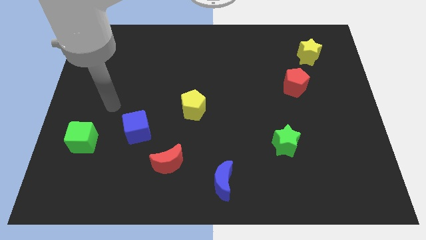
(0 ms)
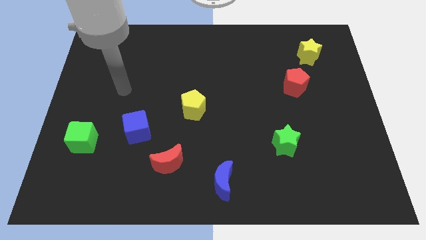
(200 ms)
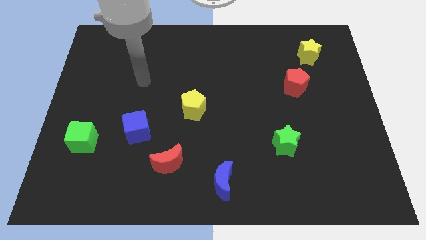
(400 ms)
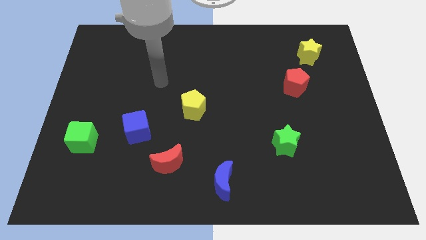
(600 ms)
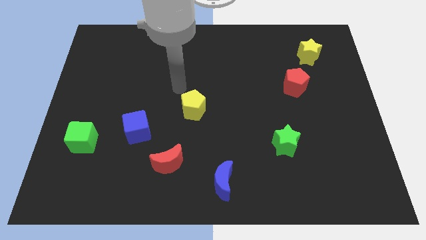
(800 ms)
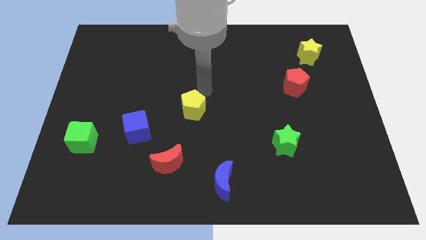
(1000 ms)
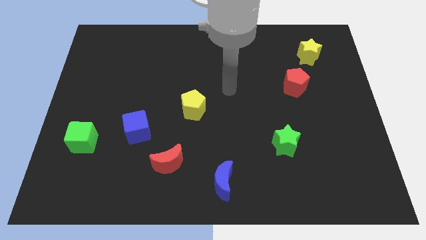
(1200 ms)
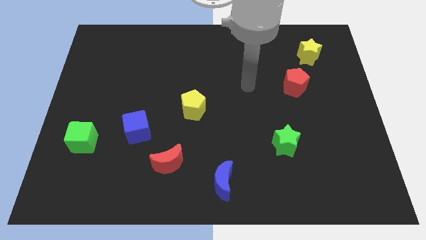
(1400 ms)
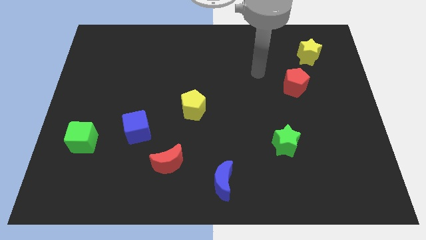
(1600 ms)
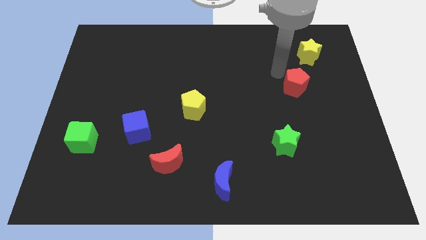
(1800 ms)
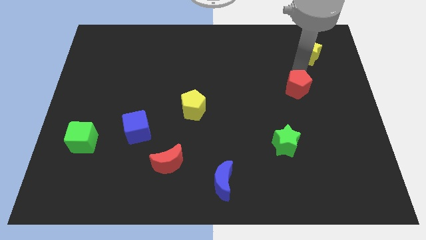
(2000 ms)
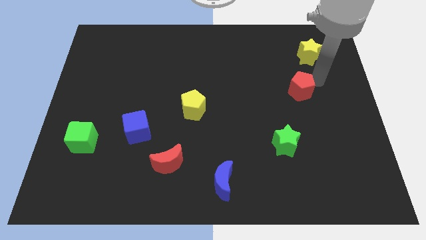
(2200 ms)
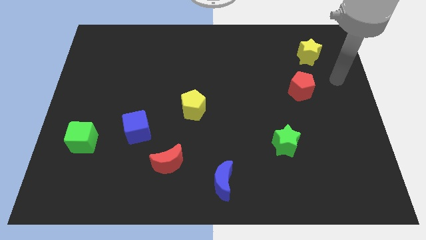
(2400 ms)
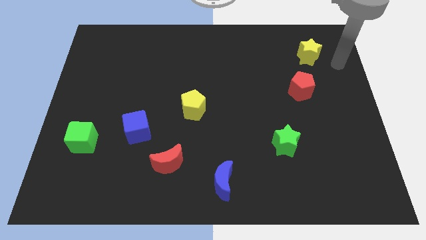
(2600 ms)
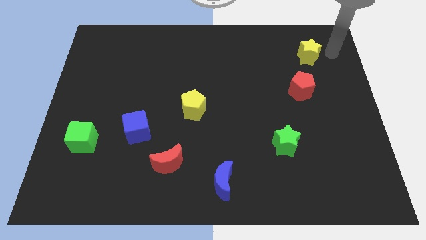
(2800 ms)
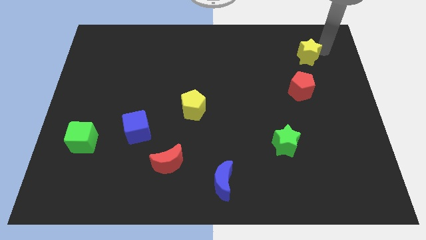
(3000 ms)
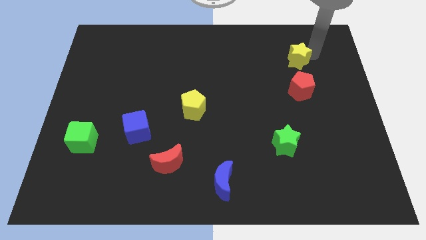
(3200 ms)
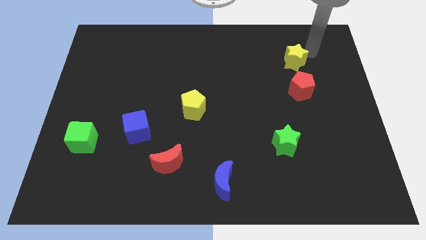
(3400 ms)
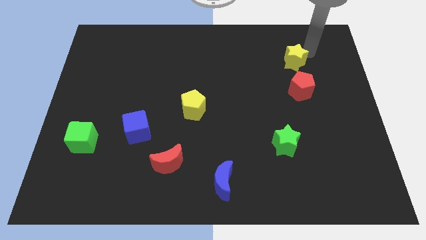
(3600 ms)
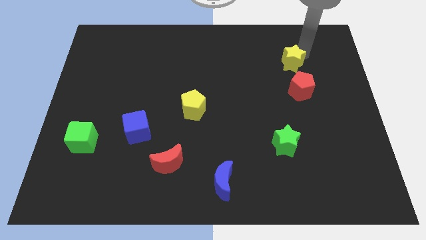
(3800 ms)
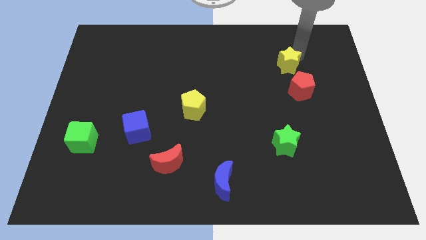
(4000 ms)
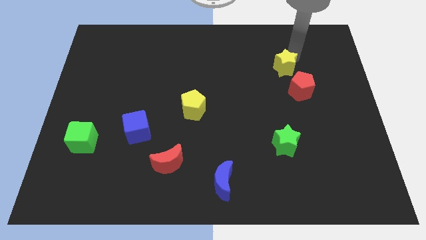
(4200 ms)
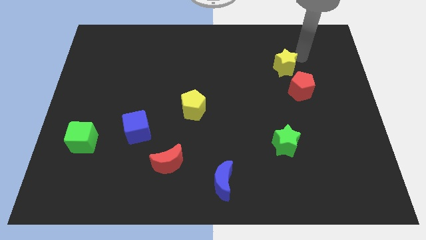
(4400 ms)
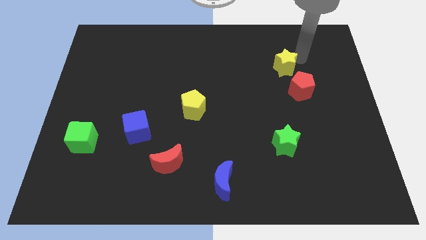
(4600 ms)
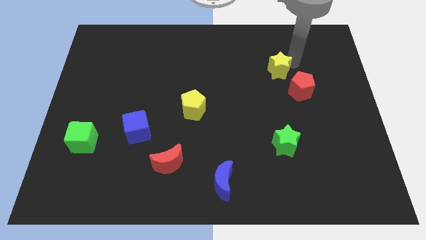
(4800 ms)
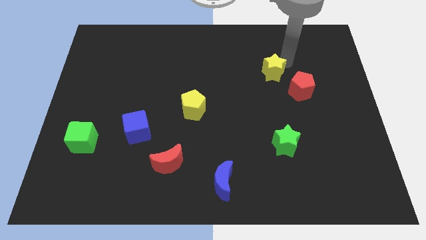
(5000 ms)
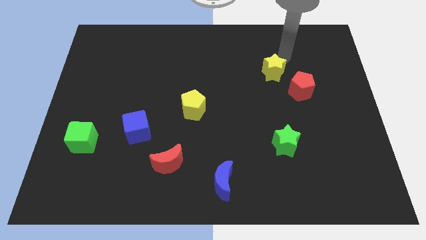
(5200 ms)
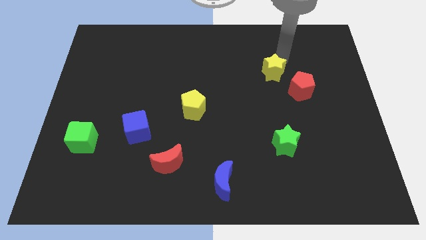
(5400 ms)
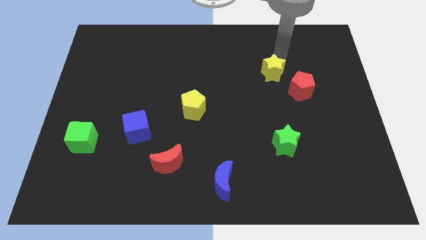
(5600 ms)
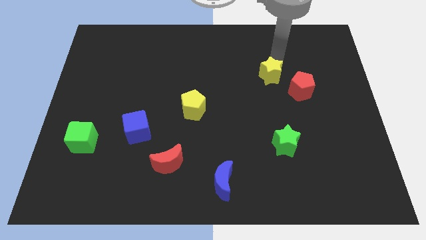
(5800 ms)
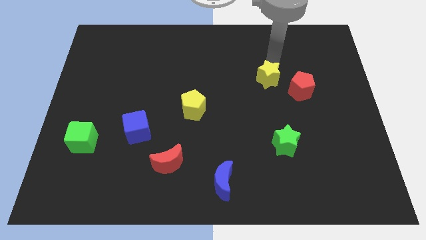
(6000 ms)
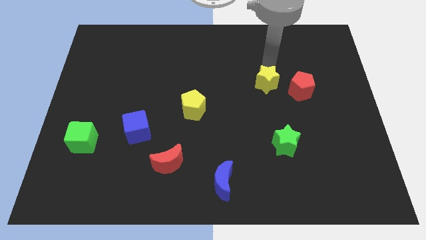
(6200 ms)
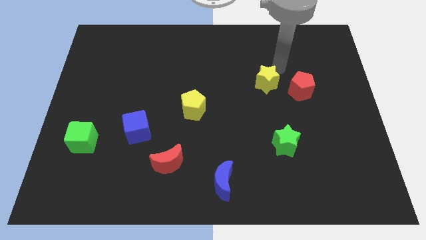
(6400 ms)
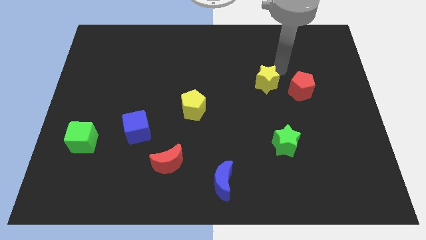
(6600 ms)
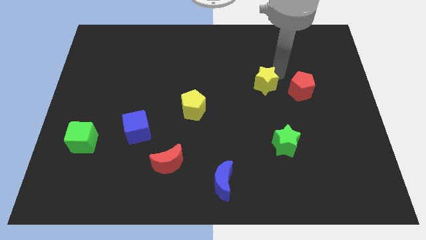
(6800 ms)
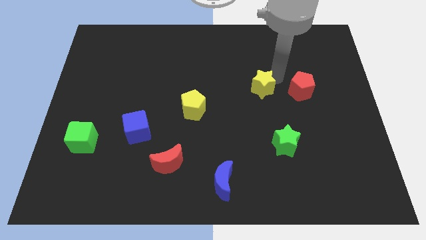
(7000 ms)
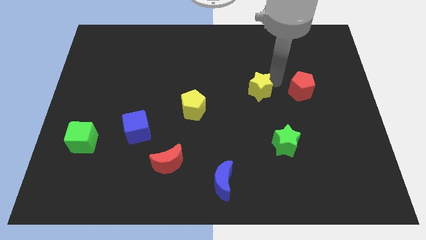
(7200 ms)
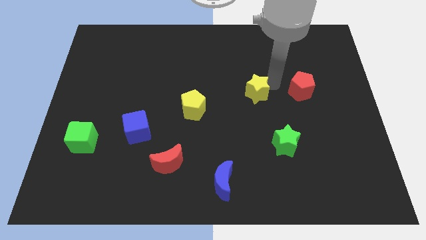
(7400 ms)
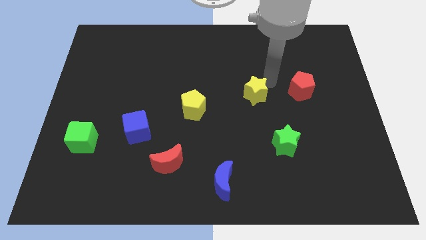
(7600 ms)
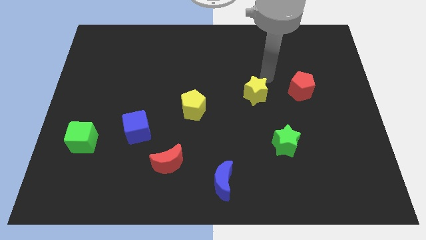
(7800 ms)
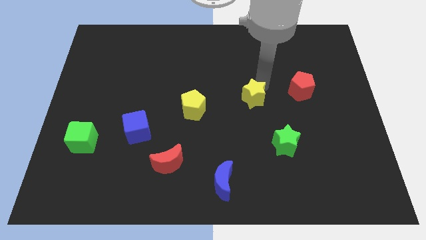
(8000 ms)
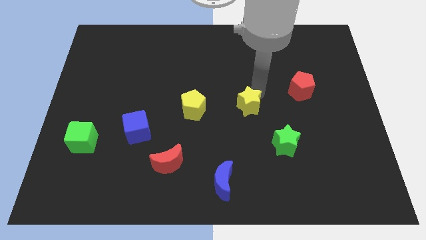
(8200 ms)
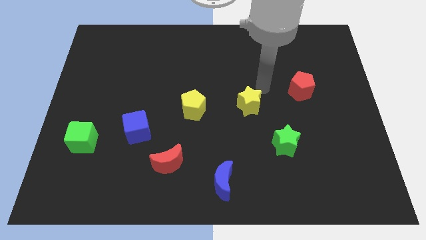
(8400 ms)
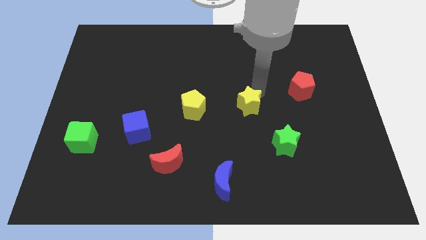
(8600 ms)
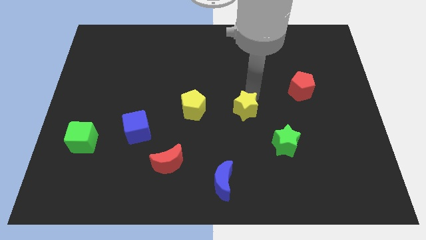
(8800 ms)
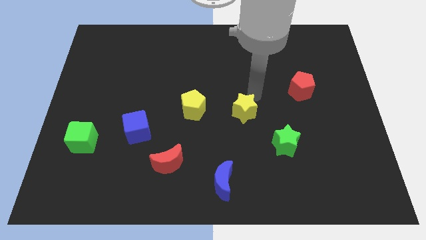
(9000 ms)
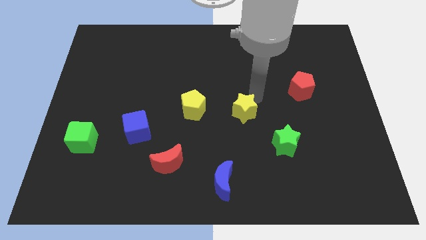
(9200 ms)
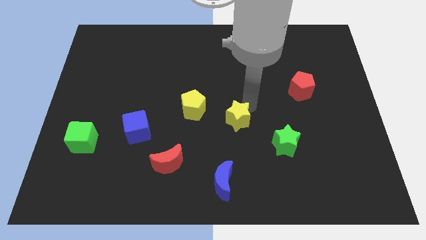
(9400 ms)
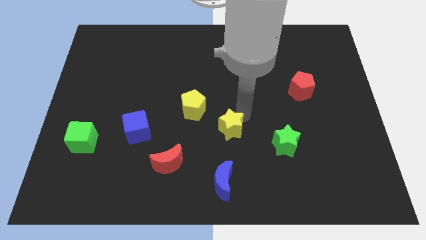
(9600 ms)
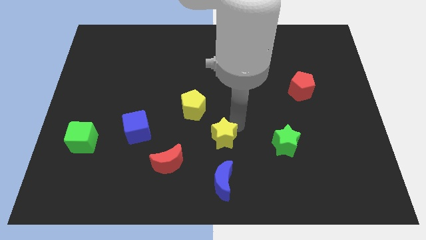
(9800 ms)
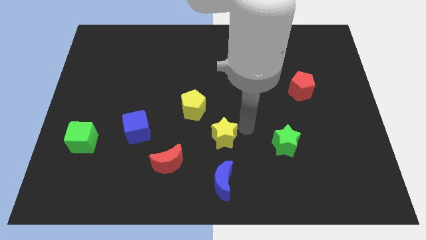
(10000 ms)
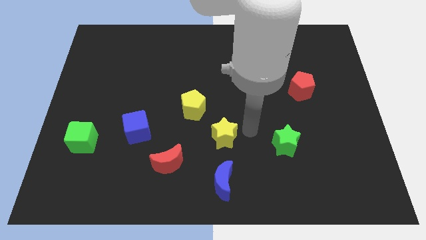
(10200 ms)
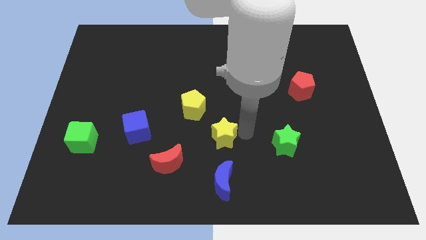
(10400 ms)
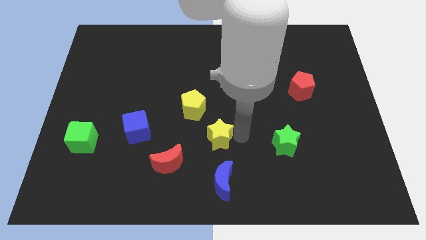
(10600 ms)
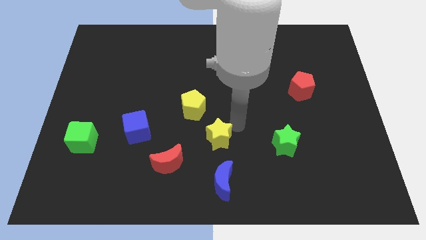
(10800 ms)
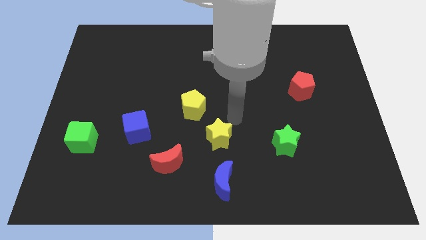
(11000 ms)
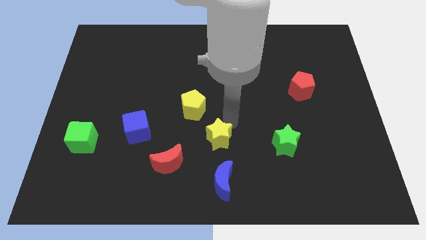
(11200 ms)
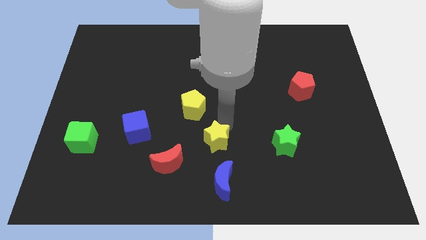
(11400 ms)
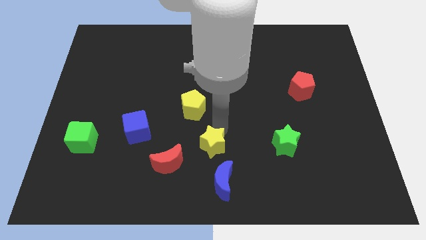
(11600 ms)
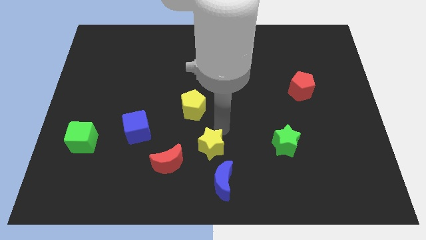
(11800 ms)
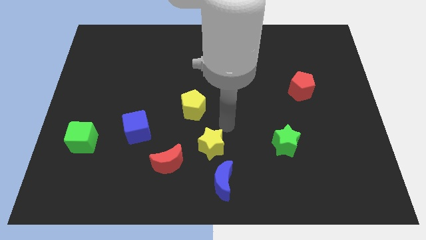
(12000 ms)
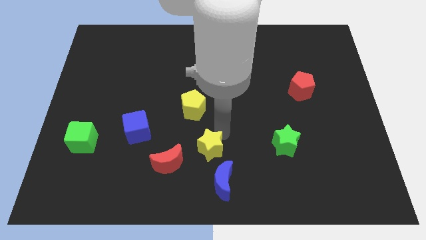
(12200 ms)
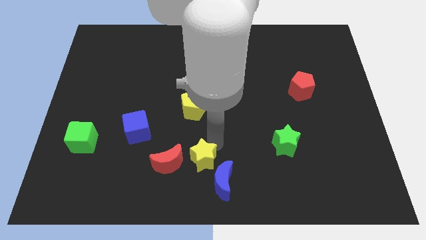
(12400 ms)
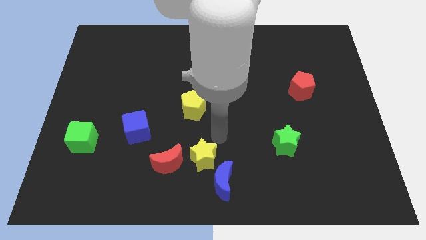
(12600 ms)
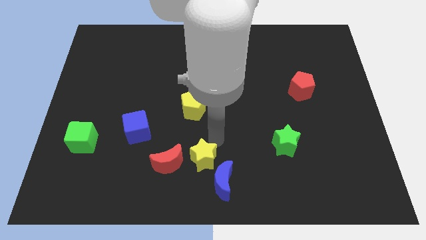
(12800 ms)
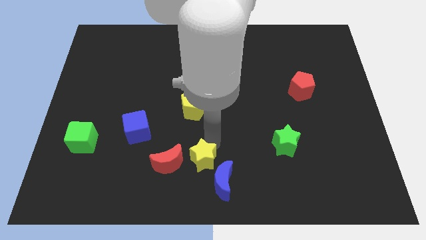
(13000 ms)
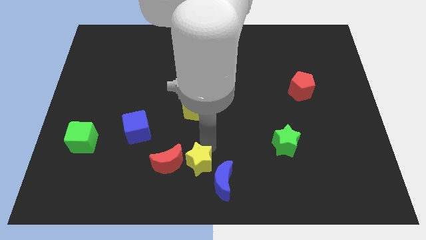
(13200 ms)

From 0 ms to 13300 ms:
slide the yellow star to the left of the blue moon

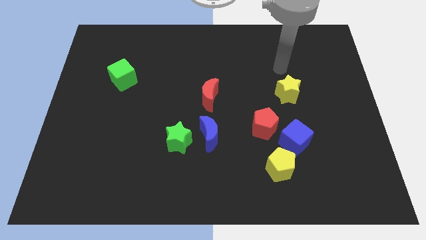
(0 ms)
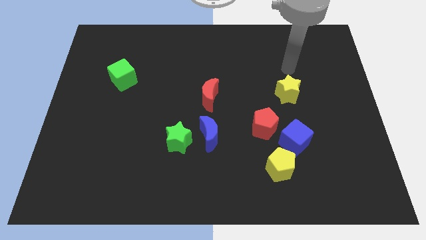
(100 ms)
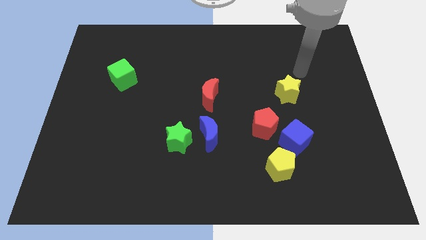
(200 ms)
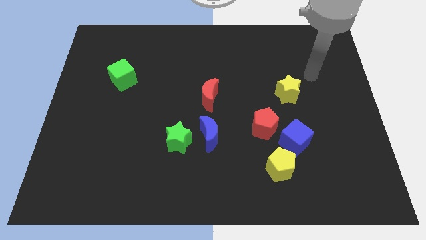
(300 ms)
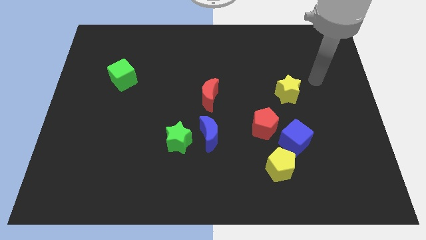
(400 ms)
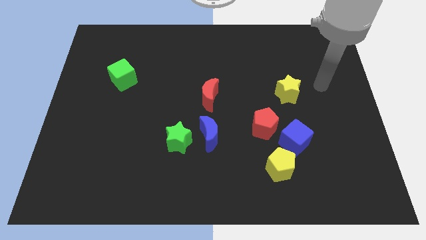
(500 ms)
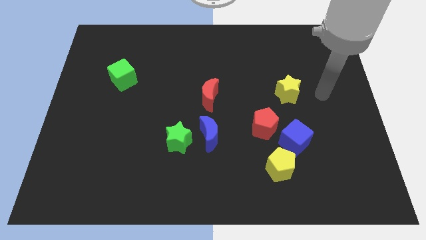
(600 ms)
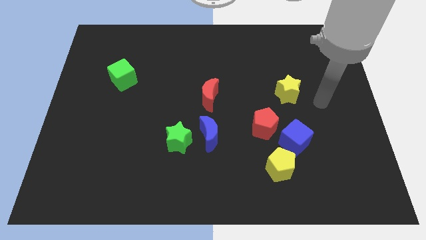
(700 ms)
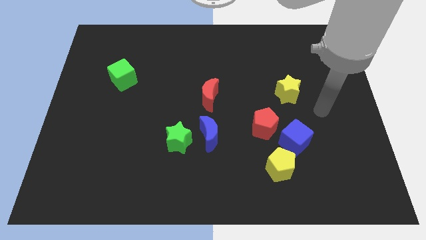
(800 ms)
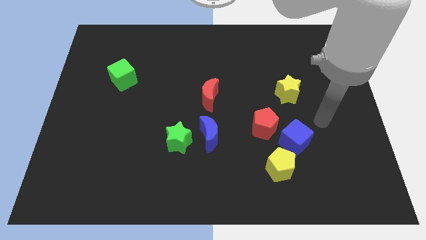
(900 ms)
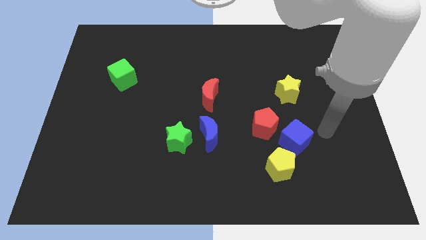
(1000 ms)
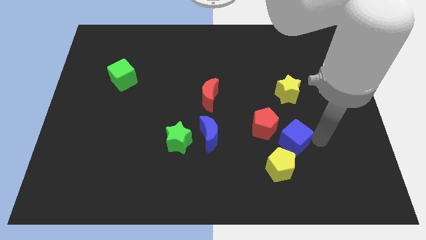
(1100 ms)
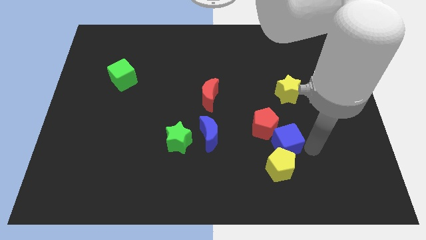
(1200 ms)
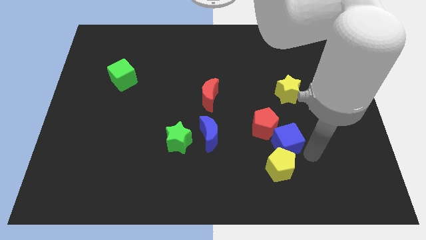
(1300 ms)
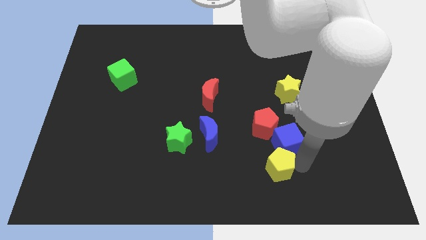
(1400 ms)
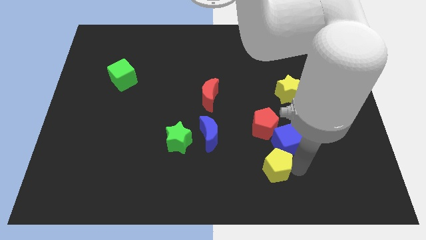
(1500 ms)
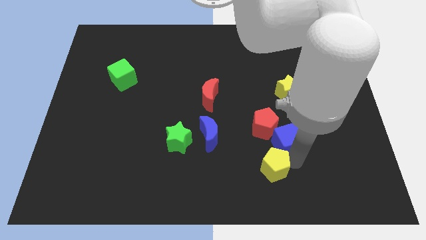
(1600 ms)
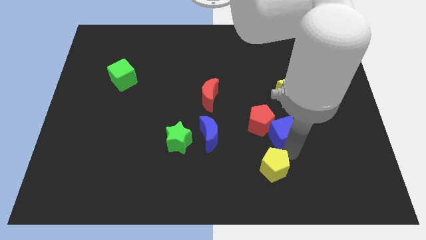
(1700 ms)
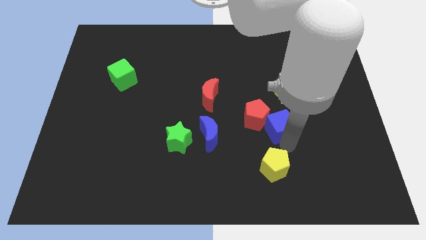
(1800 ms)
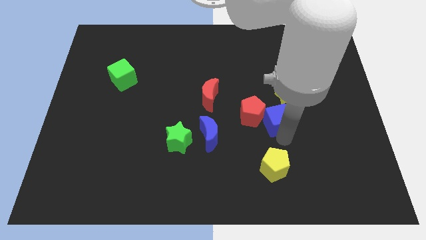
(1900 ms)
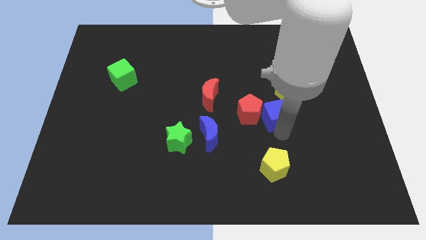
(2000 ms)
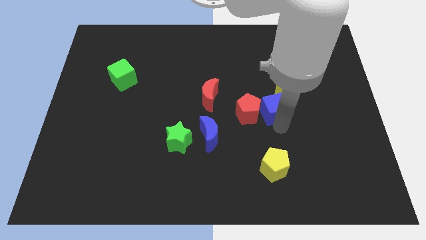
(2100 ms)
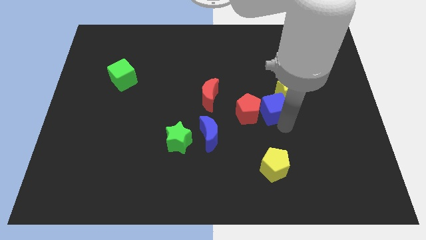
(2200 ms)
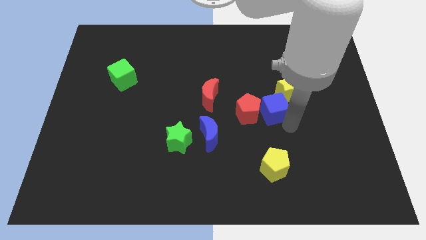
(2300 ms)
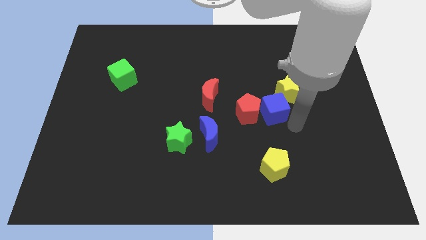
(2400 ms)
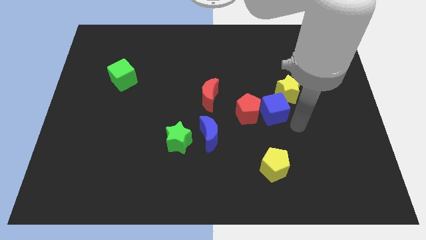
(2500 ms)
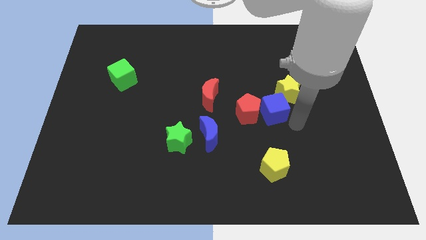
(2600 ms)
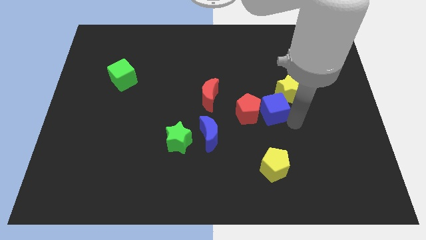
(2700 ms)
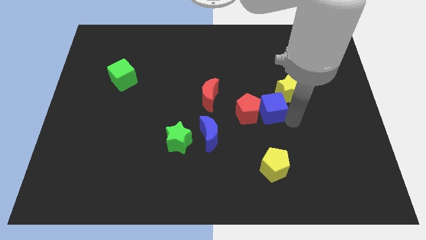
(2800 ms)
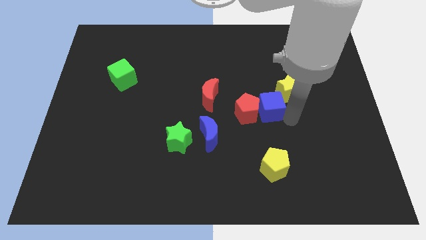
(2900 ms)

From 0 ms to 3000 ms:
put the blue cube left of the yellow star
